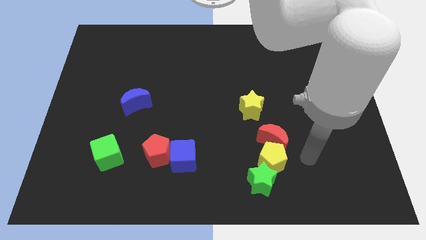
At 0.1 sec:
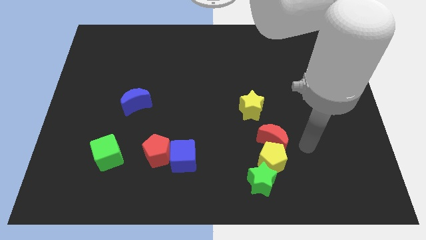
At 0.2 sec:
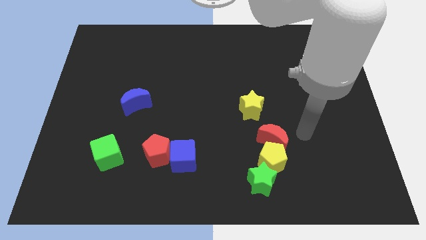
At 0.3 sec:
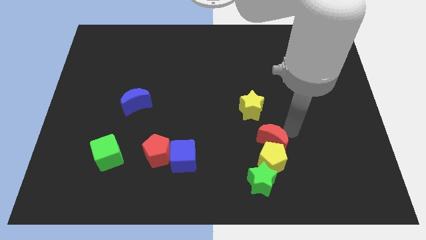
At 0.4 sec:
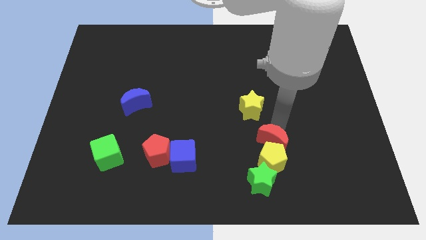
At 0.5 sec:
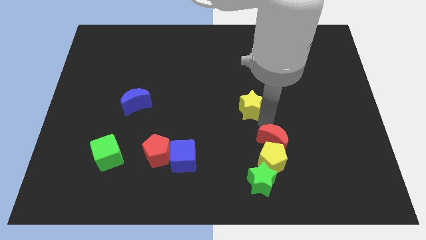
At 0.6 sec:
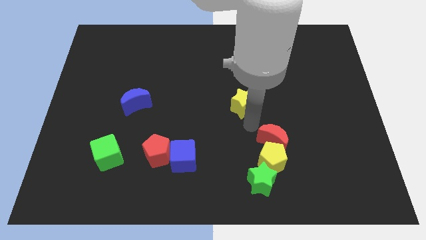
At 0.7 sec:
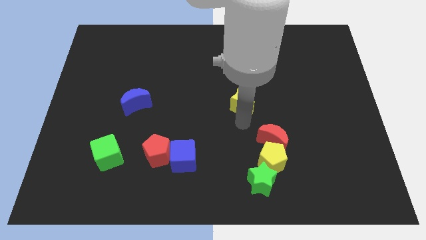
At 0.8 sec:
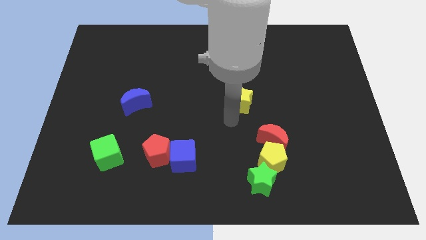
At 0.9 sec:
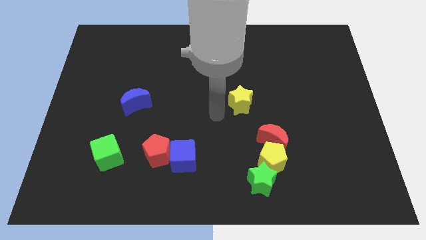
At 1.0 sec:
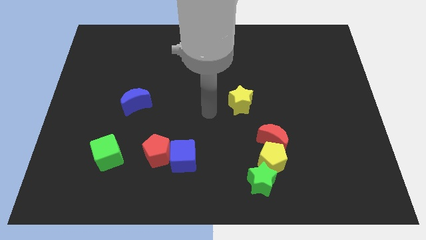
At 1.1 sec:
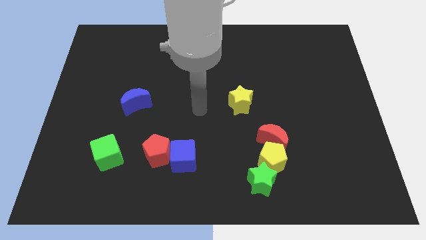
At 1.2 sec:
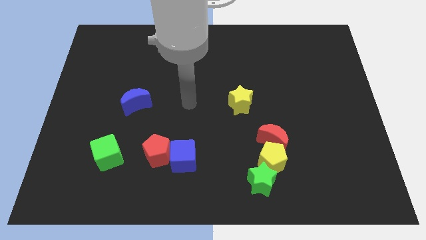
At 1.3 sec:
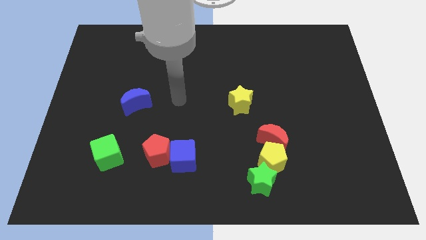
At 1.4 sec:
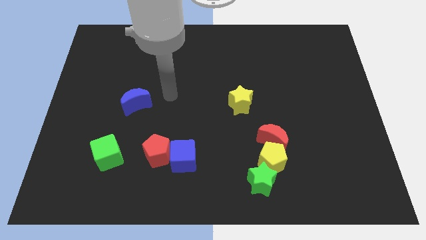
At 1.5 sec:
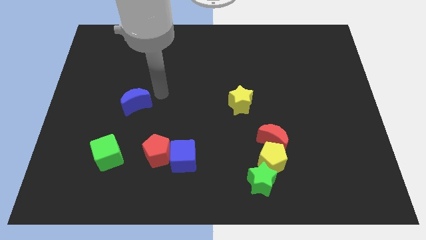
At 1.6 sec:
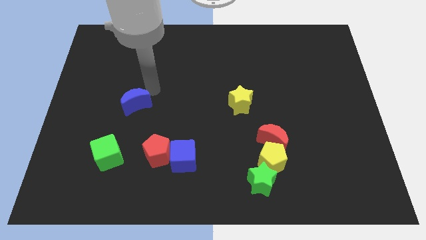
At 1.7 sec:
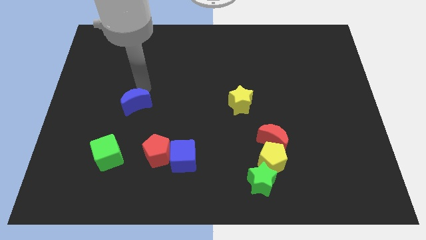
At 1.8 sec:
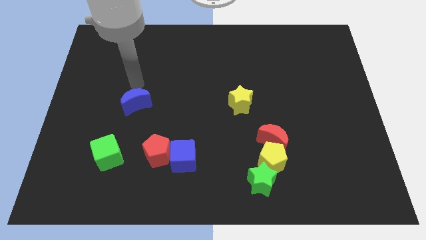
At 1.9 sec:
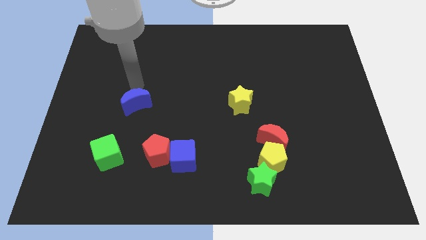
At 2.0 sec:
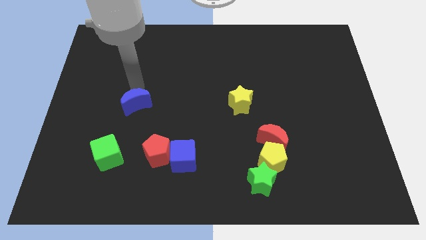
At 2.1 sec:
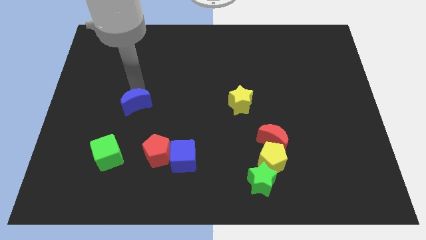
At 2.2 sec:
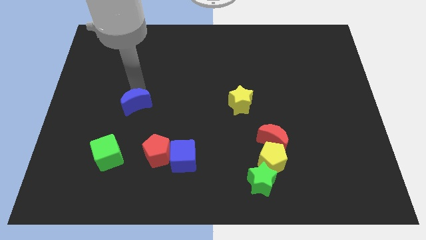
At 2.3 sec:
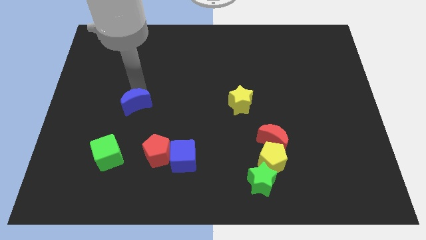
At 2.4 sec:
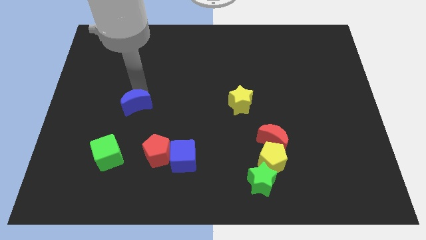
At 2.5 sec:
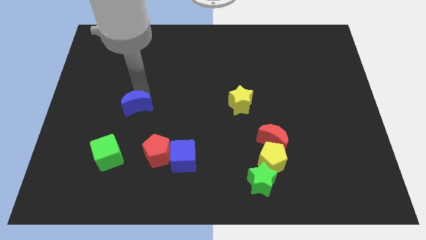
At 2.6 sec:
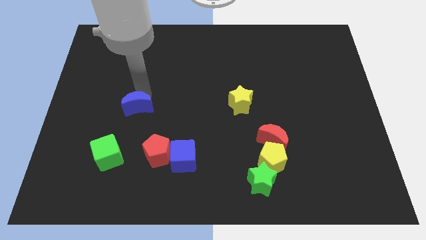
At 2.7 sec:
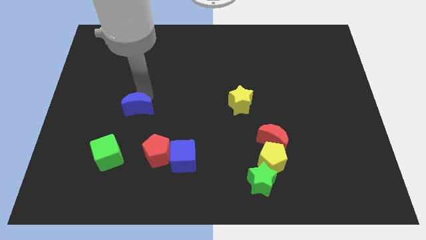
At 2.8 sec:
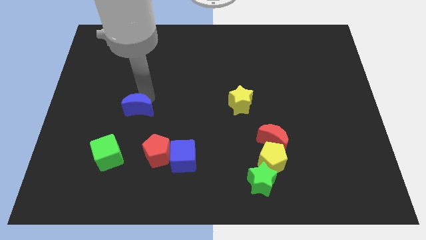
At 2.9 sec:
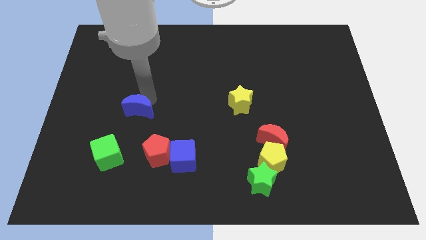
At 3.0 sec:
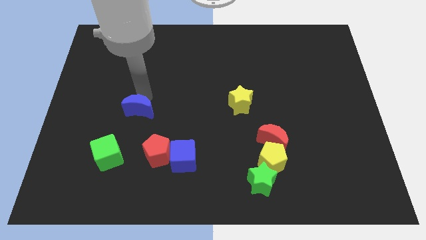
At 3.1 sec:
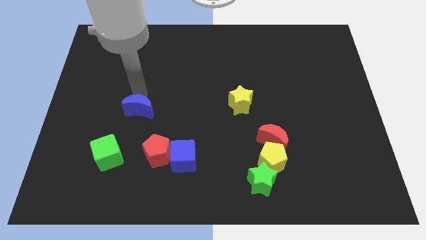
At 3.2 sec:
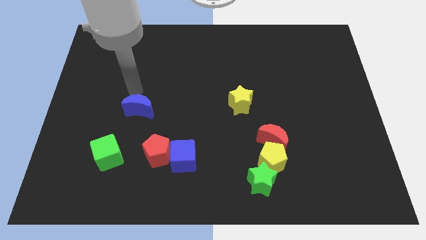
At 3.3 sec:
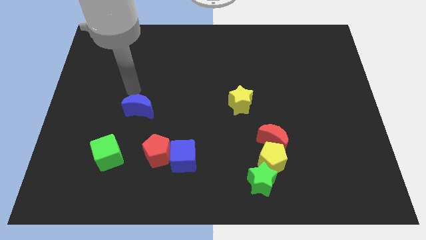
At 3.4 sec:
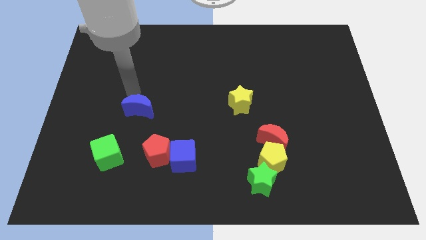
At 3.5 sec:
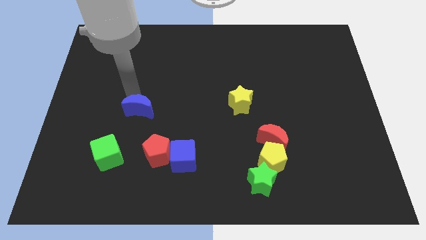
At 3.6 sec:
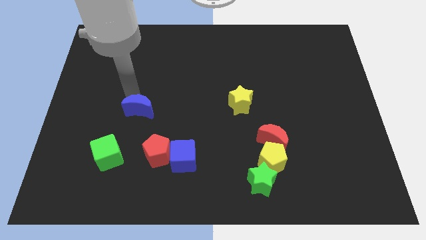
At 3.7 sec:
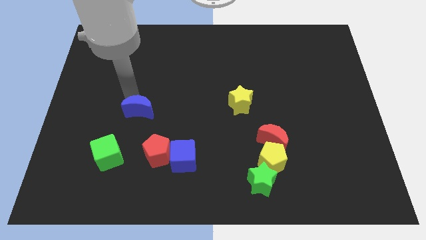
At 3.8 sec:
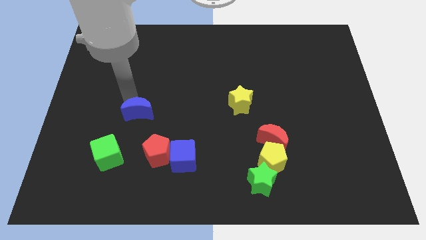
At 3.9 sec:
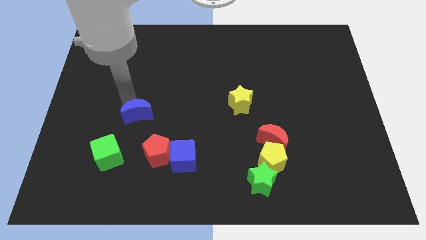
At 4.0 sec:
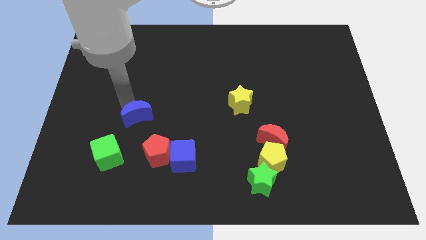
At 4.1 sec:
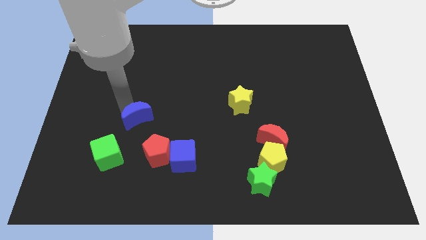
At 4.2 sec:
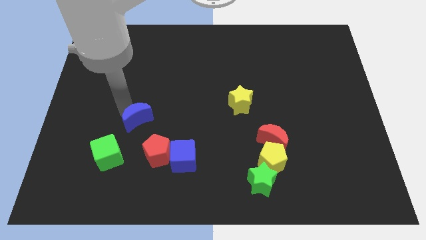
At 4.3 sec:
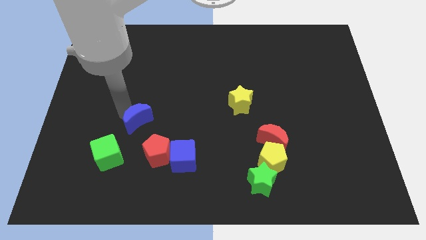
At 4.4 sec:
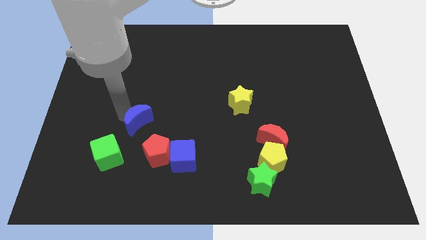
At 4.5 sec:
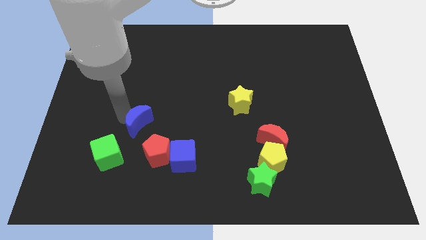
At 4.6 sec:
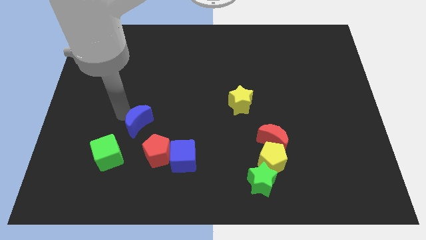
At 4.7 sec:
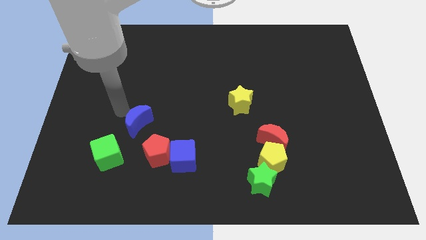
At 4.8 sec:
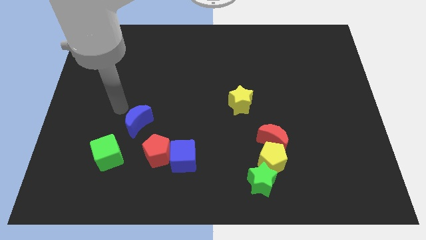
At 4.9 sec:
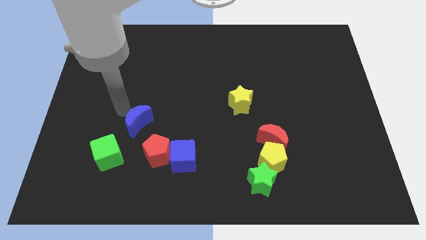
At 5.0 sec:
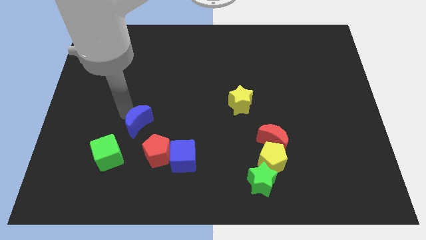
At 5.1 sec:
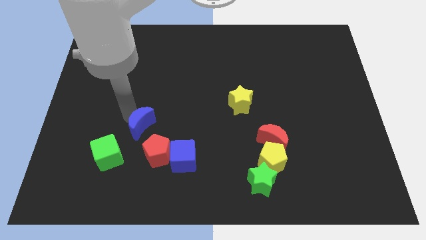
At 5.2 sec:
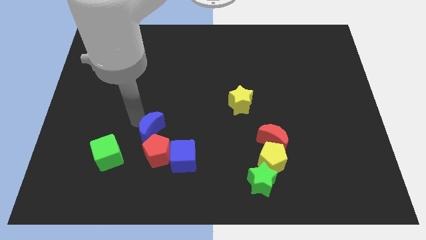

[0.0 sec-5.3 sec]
move the blue moon close to the red pentagon

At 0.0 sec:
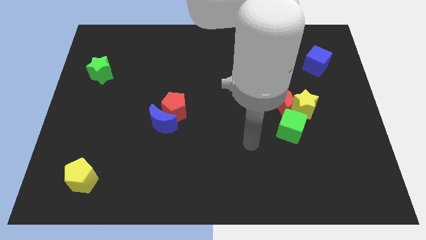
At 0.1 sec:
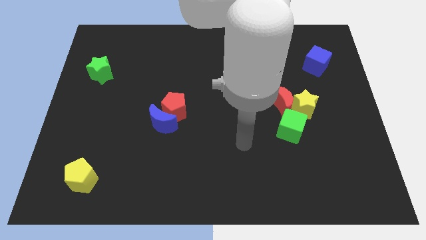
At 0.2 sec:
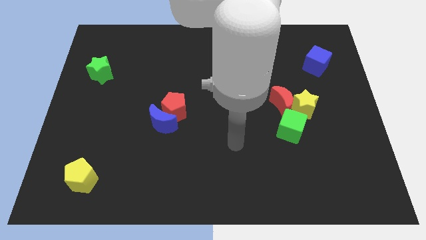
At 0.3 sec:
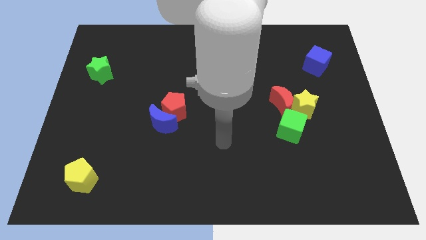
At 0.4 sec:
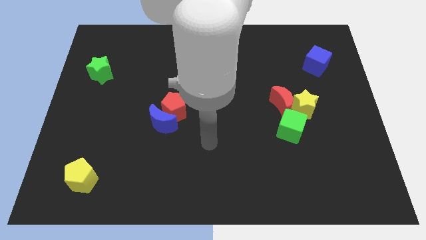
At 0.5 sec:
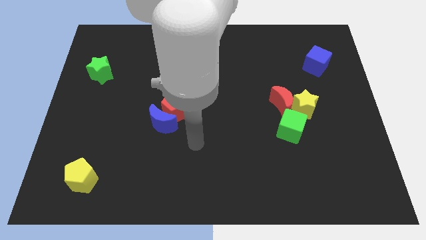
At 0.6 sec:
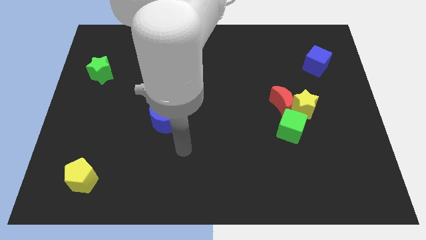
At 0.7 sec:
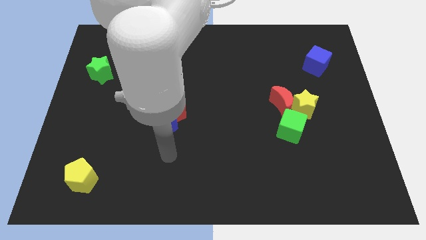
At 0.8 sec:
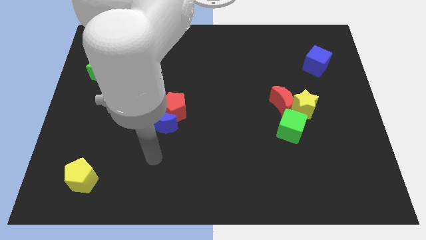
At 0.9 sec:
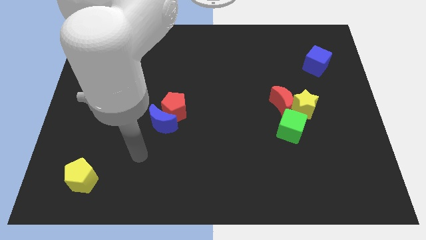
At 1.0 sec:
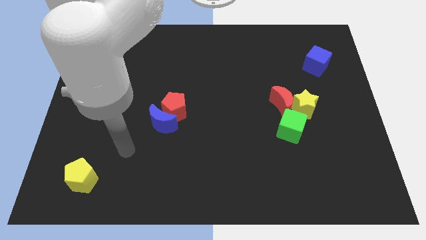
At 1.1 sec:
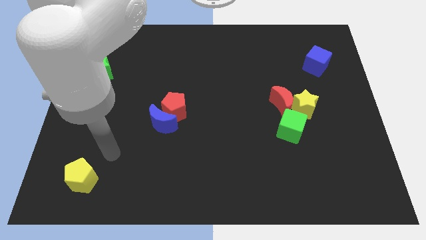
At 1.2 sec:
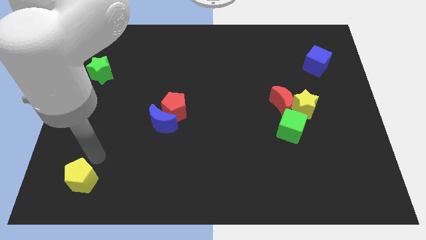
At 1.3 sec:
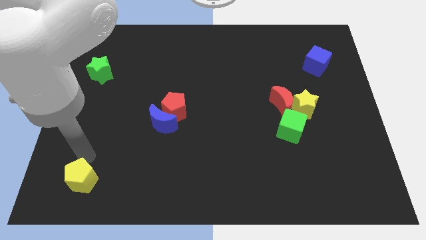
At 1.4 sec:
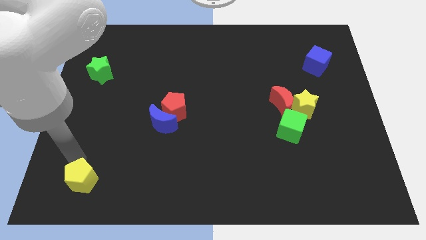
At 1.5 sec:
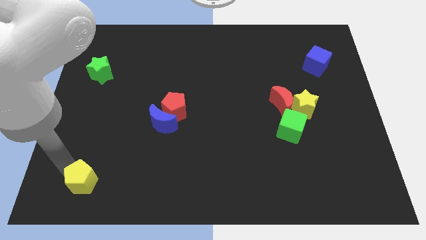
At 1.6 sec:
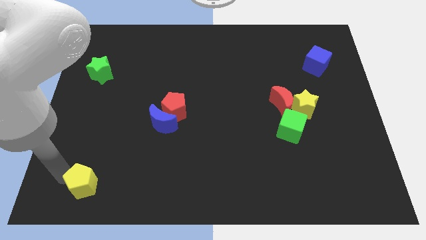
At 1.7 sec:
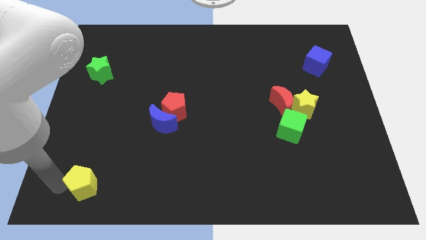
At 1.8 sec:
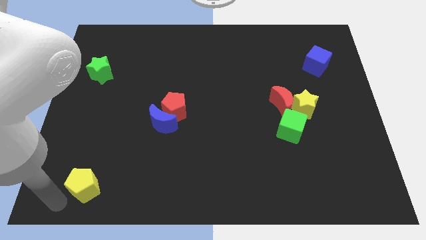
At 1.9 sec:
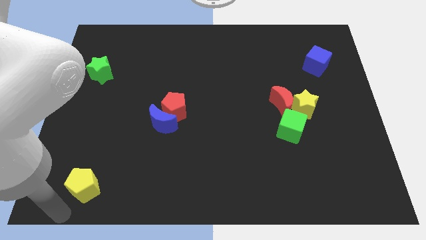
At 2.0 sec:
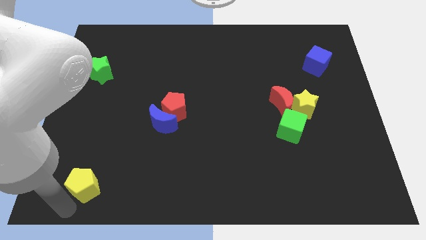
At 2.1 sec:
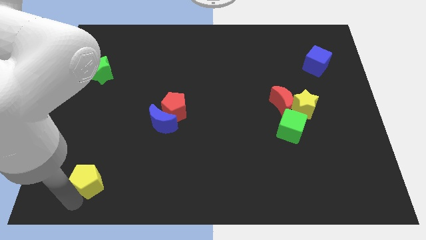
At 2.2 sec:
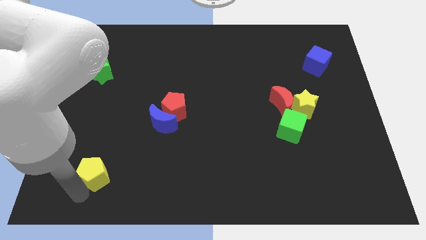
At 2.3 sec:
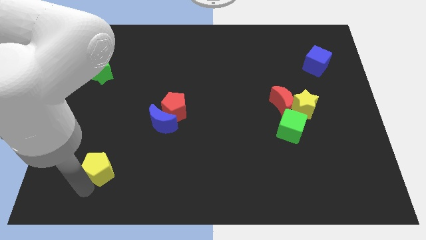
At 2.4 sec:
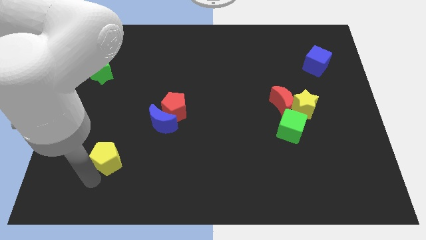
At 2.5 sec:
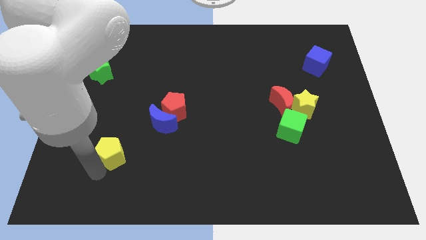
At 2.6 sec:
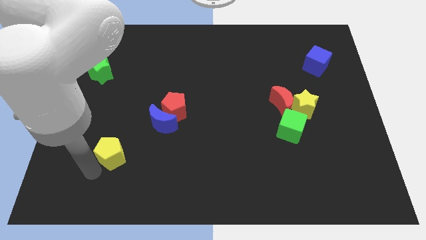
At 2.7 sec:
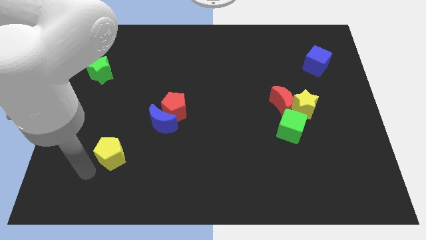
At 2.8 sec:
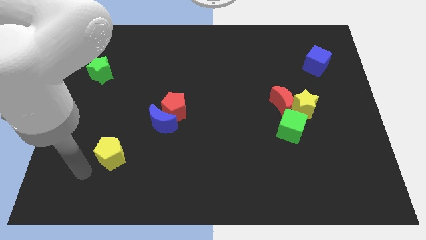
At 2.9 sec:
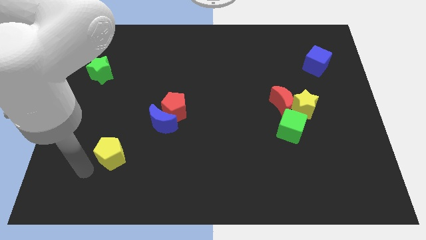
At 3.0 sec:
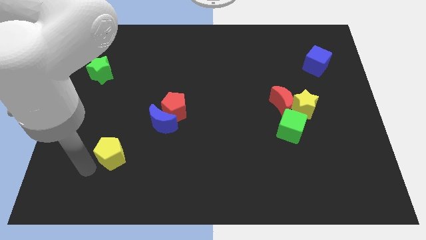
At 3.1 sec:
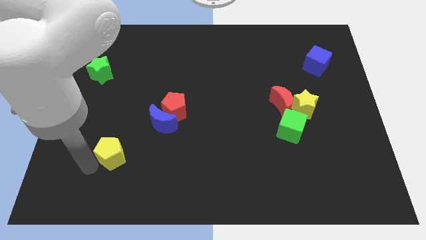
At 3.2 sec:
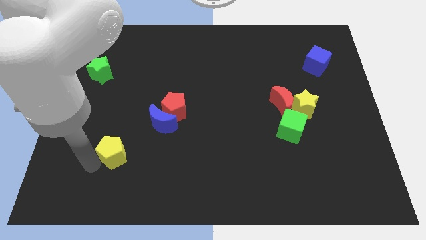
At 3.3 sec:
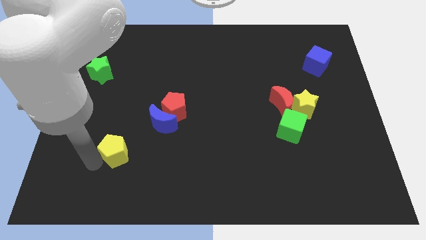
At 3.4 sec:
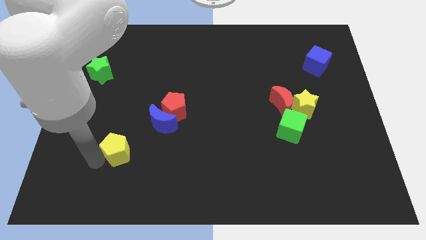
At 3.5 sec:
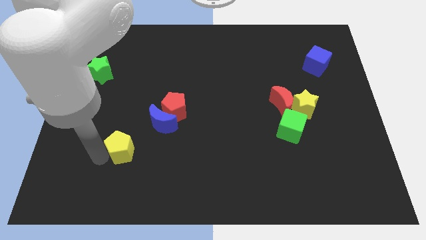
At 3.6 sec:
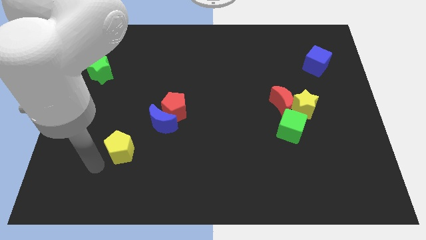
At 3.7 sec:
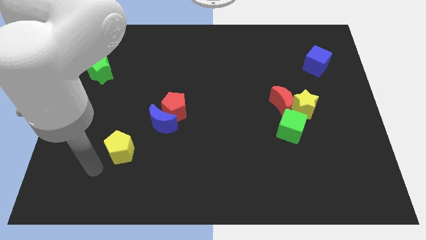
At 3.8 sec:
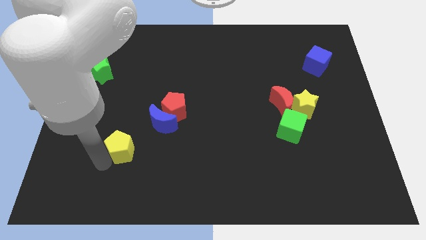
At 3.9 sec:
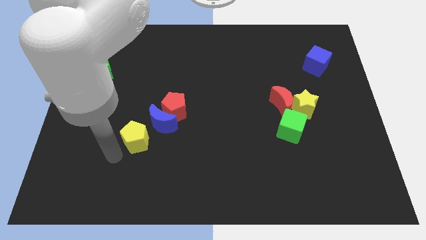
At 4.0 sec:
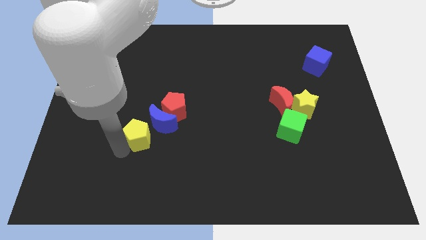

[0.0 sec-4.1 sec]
move the yellow pentagon next to the blue moon
